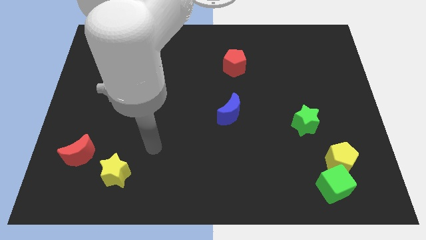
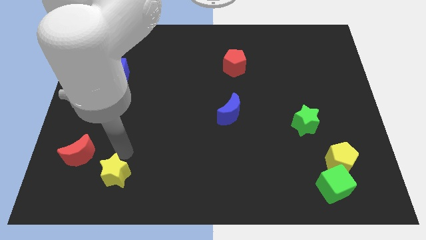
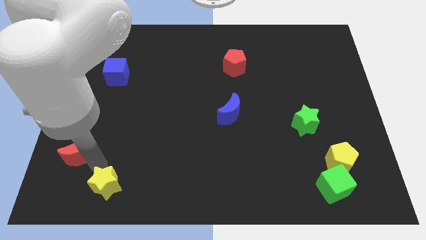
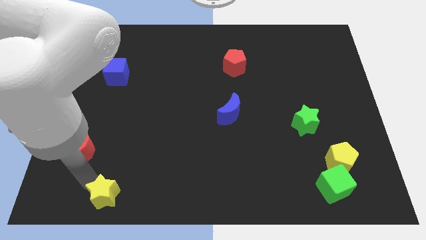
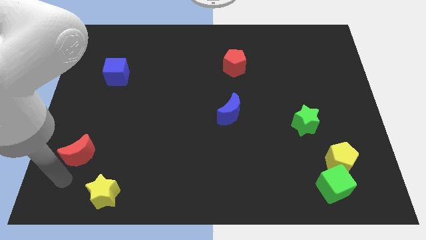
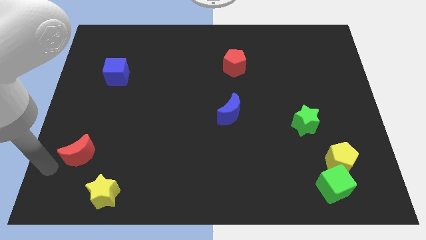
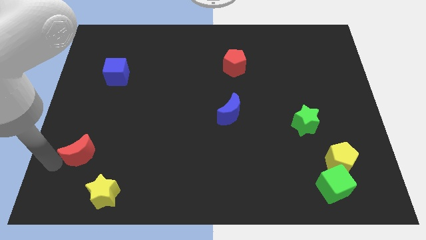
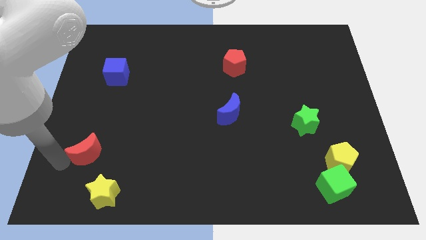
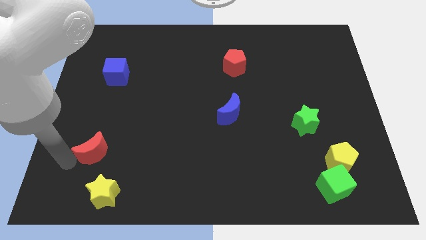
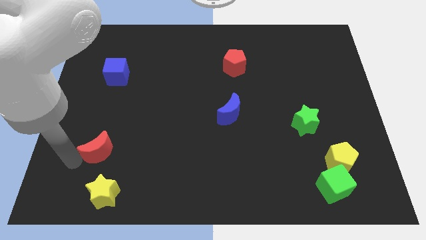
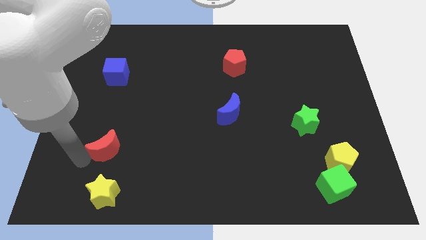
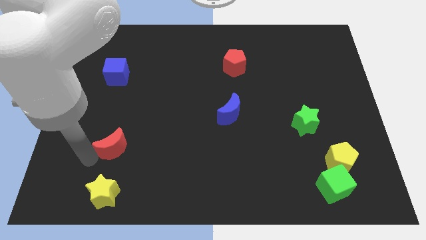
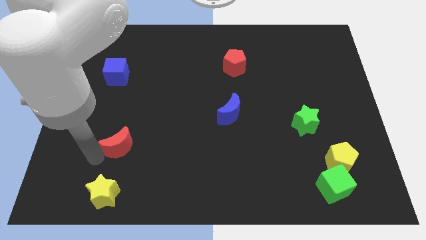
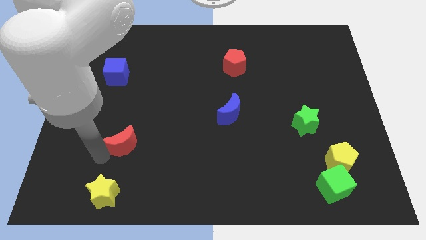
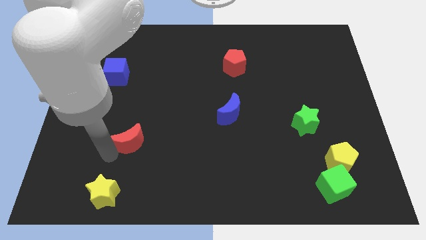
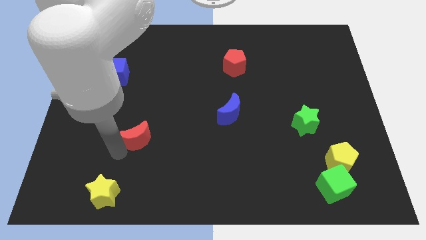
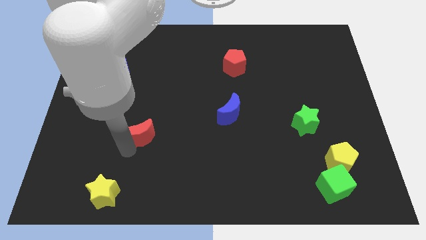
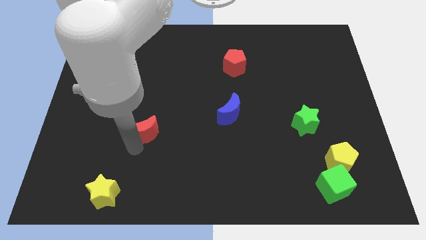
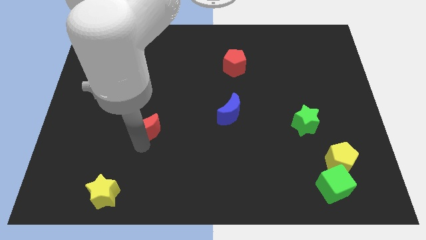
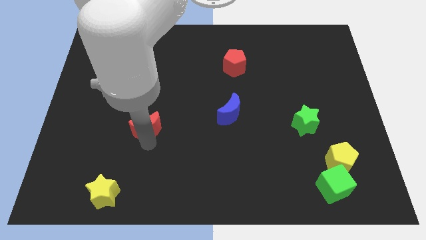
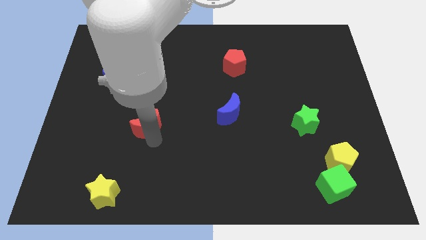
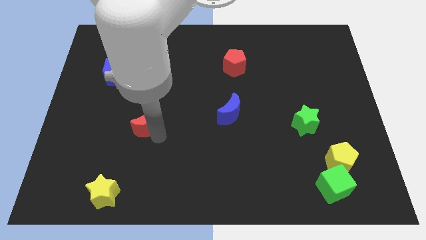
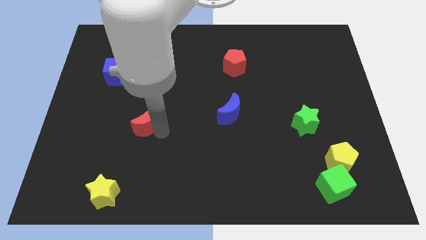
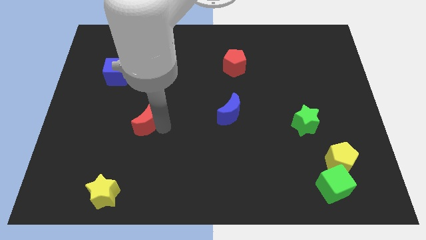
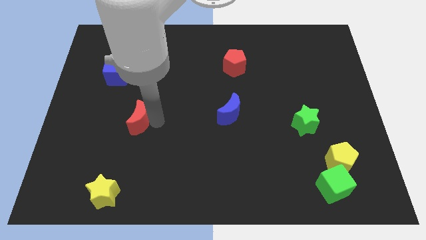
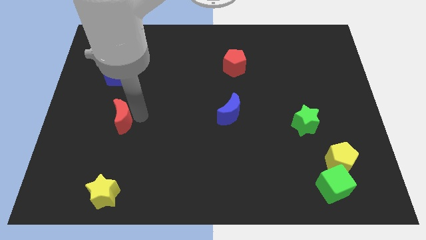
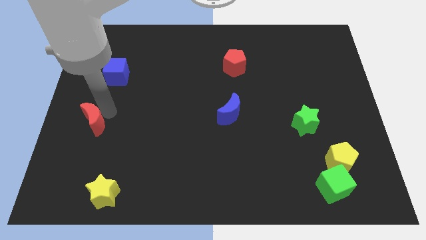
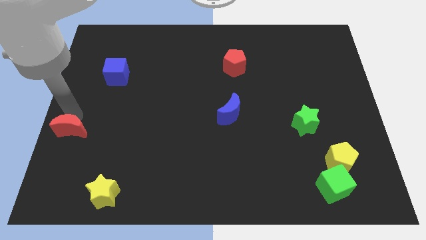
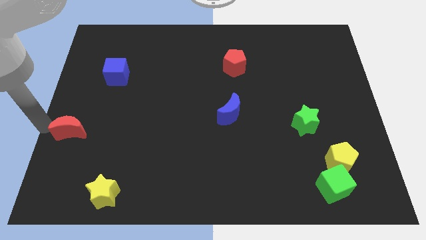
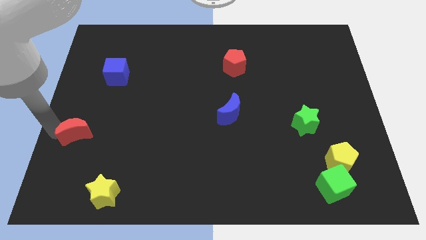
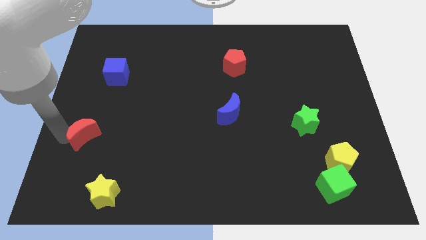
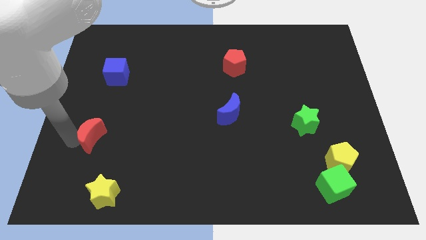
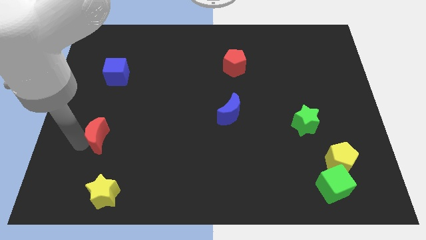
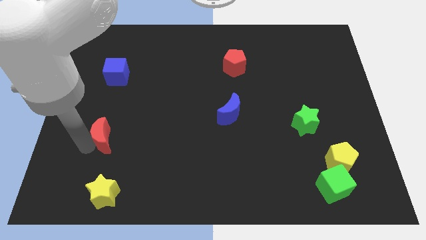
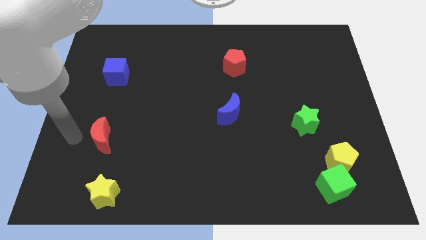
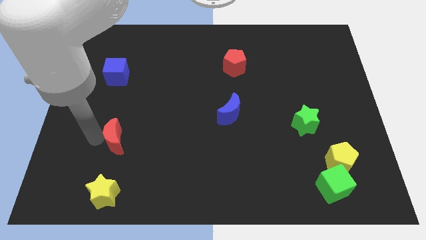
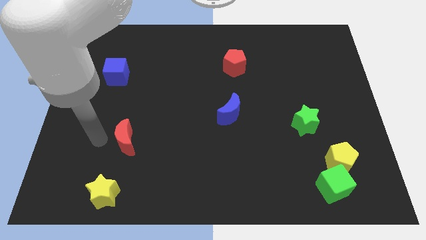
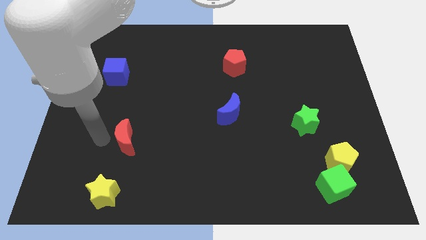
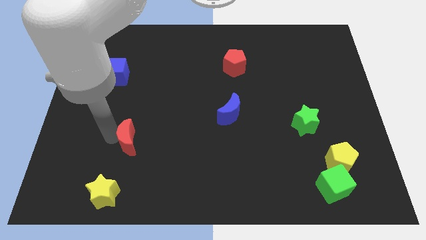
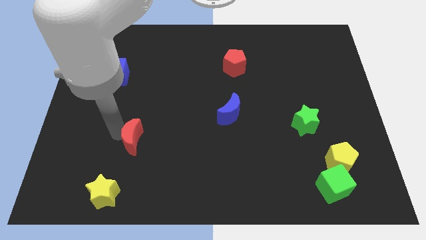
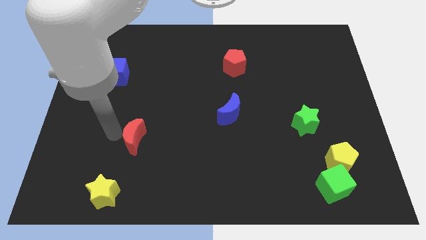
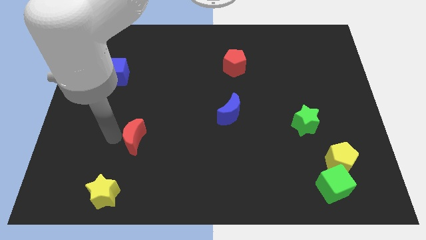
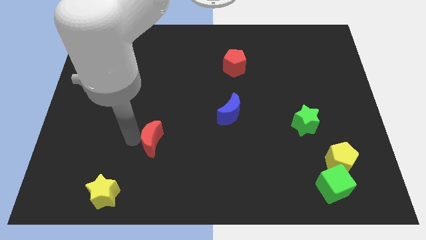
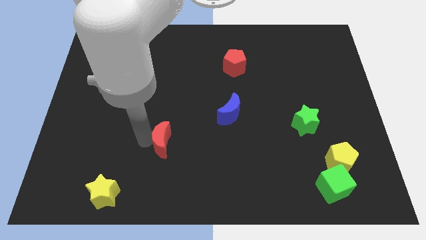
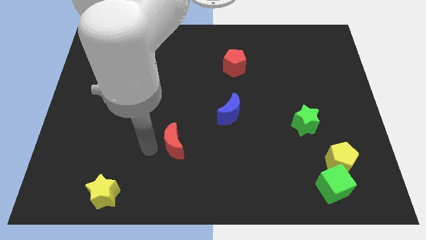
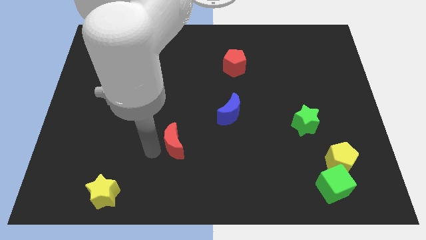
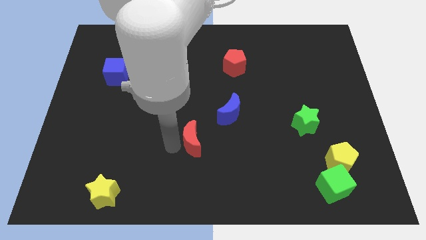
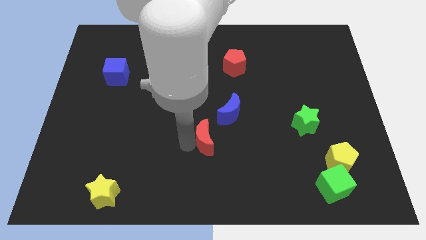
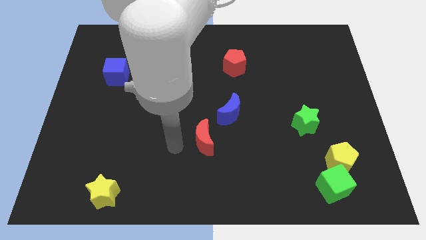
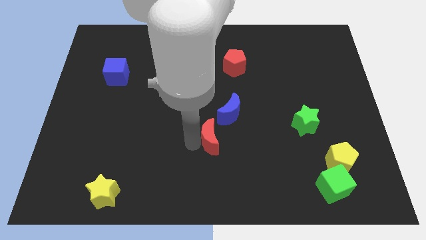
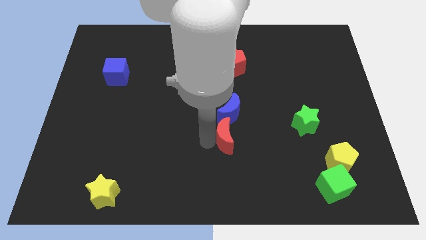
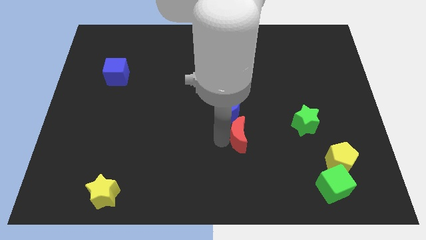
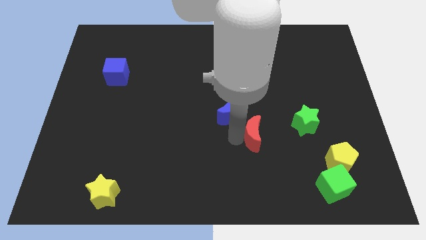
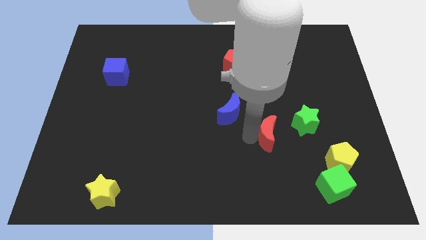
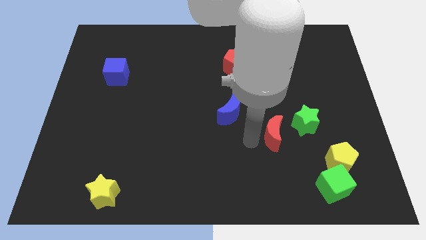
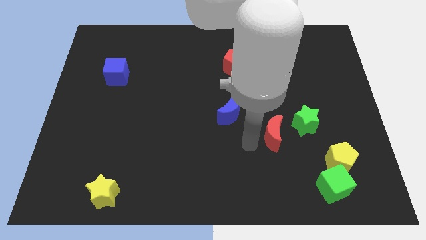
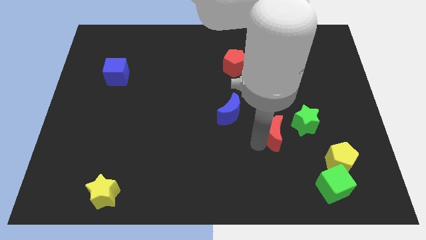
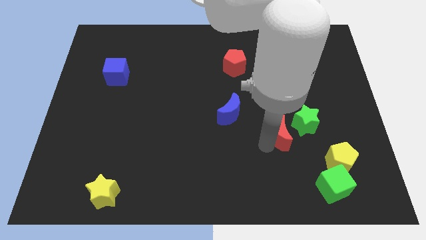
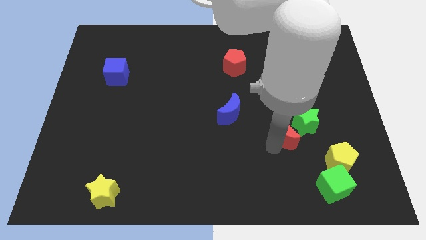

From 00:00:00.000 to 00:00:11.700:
push the red moon to the green star

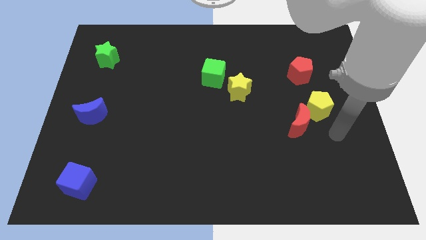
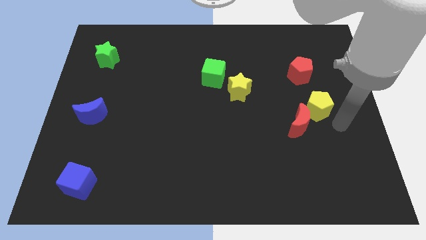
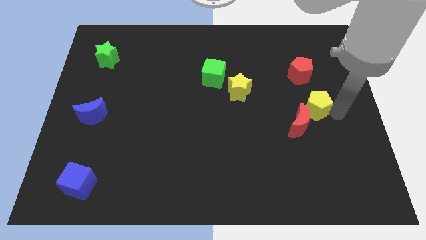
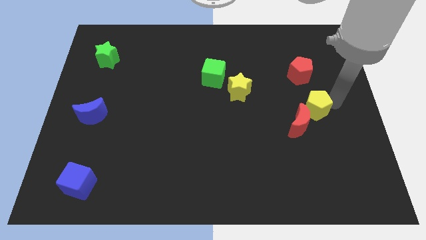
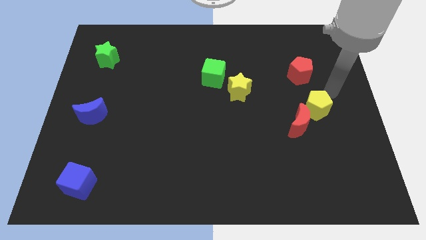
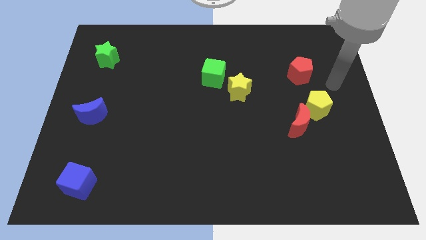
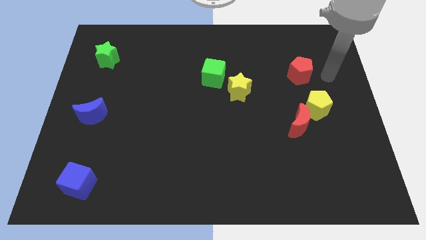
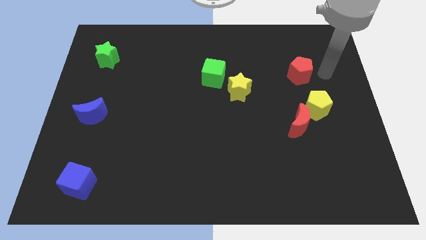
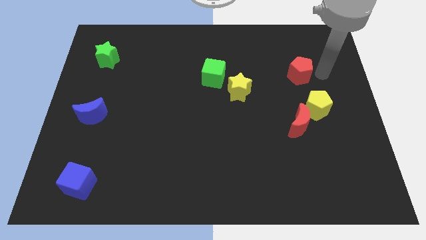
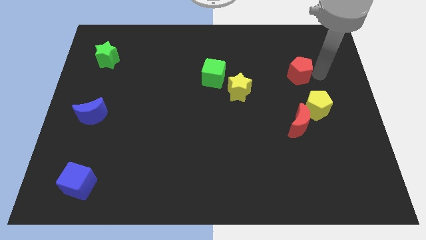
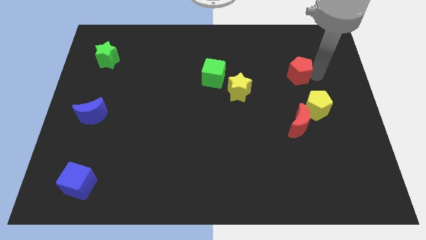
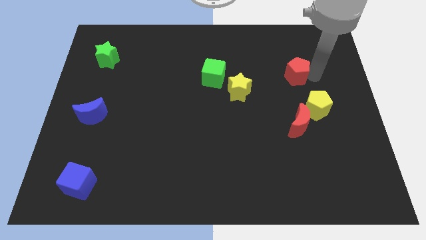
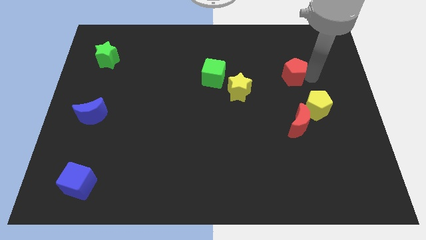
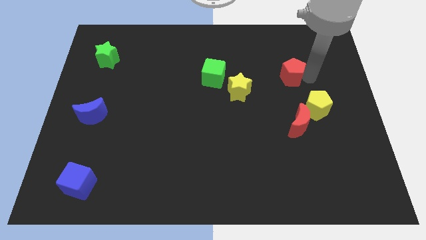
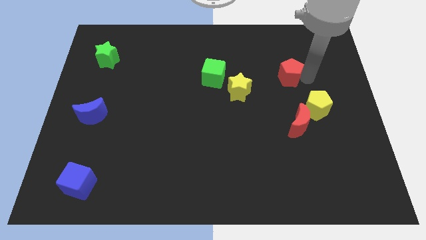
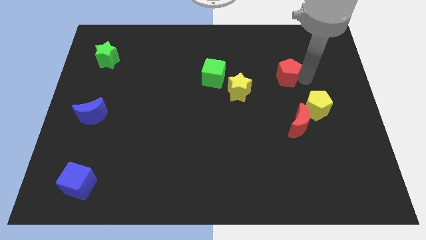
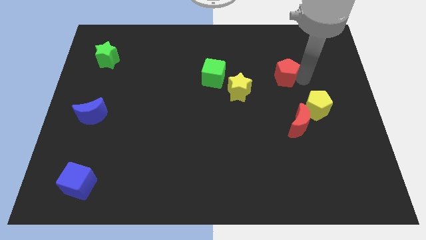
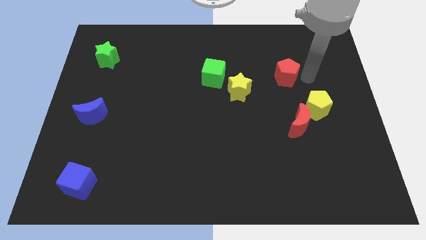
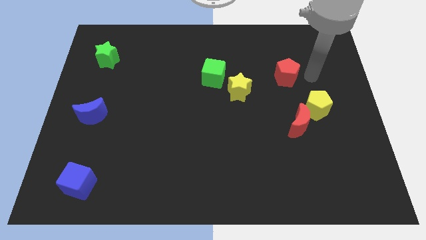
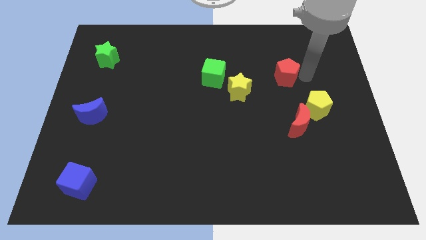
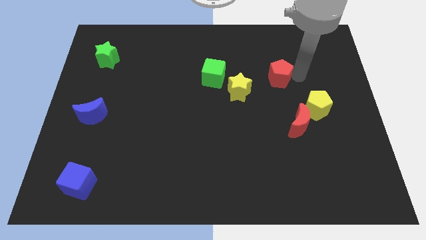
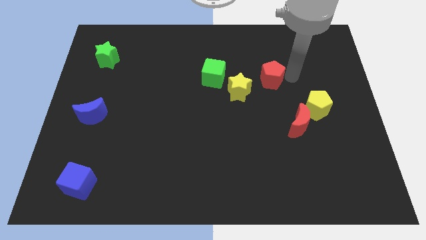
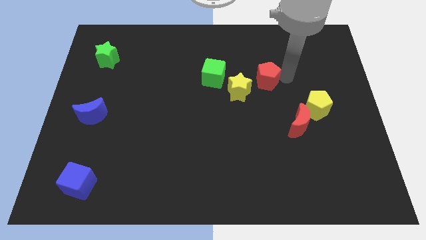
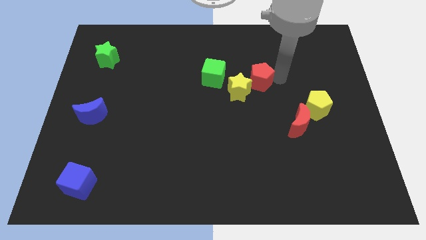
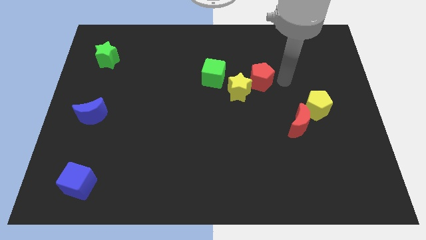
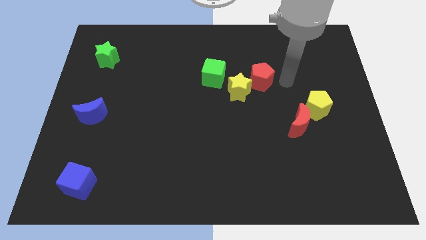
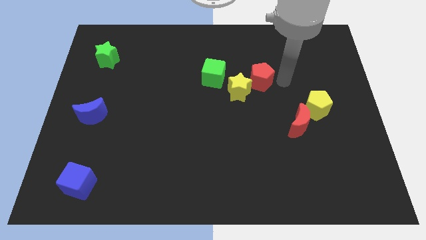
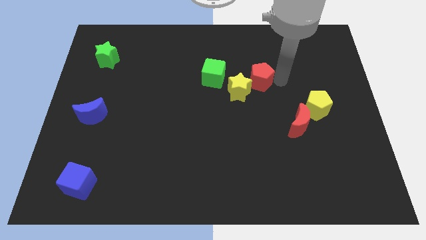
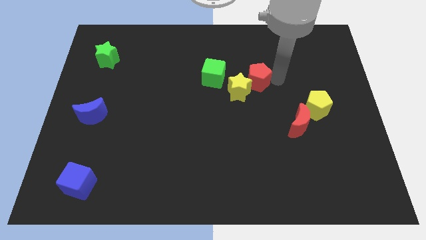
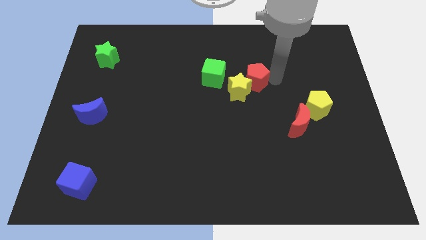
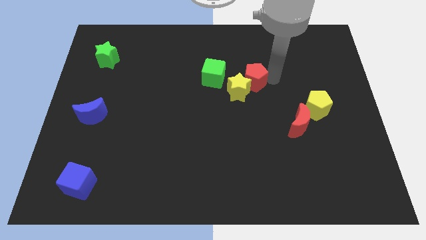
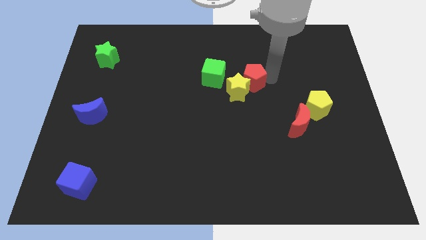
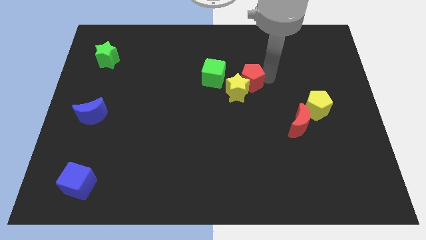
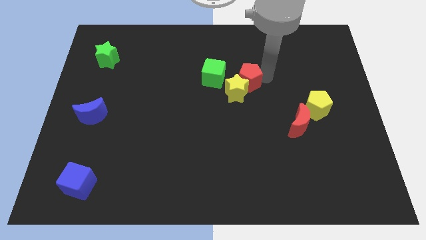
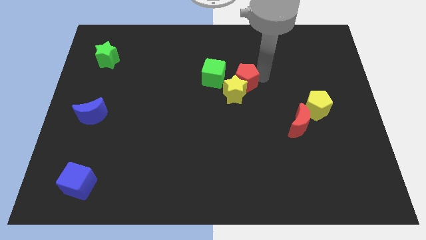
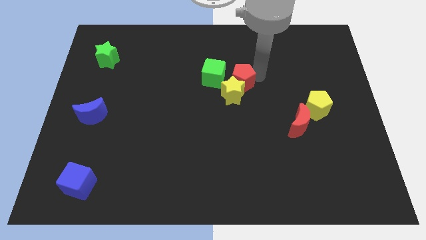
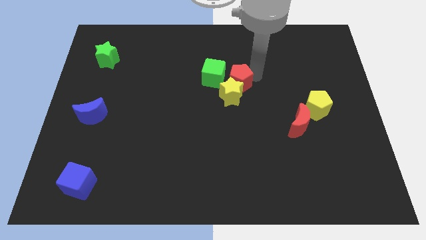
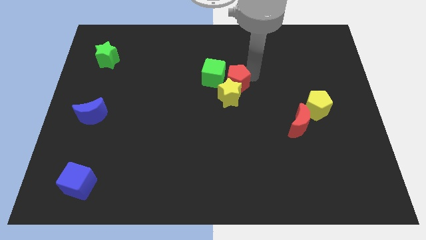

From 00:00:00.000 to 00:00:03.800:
move the red pentagon towards the green cube
